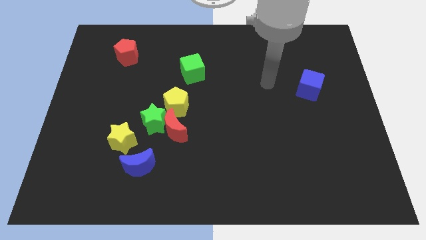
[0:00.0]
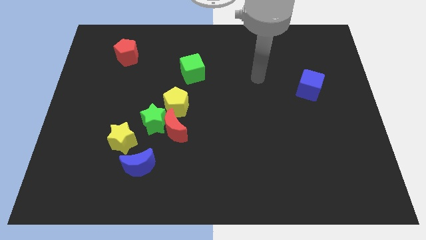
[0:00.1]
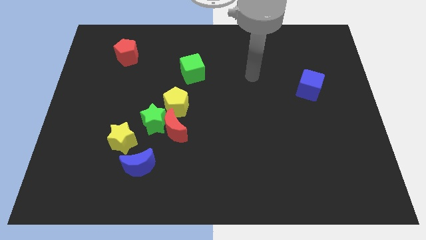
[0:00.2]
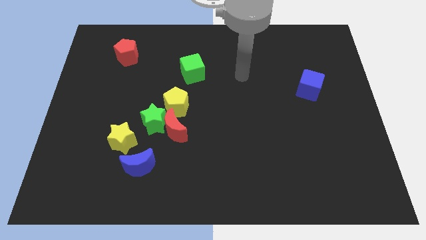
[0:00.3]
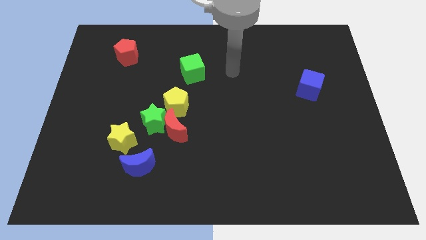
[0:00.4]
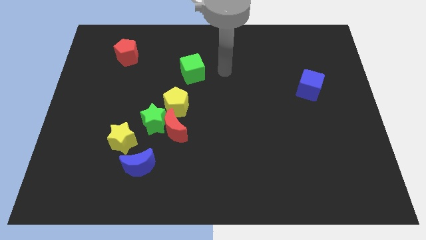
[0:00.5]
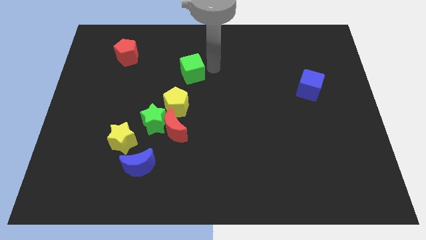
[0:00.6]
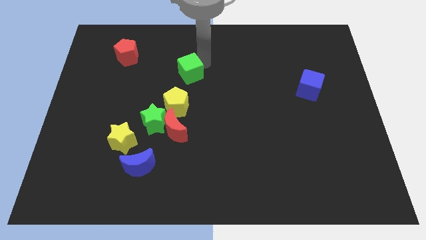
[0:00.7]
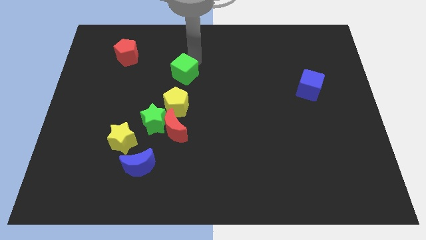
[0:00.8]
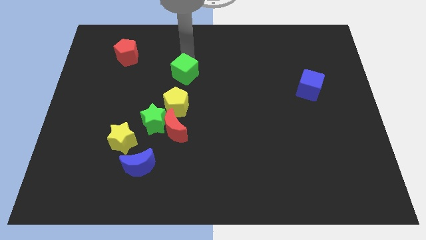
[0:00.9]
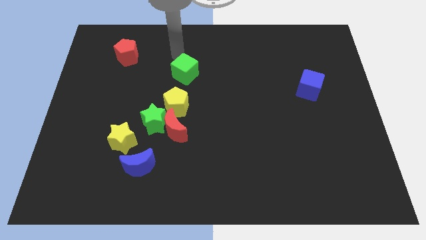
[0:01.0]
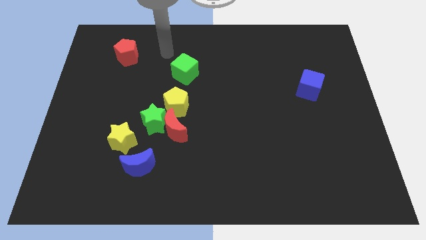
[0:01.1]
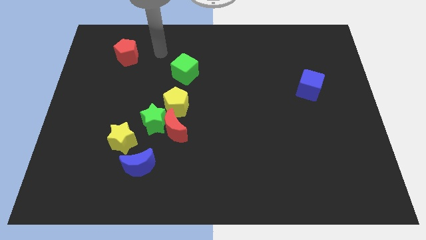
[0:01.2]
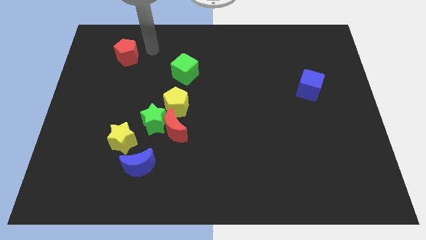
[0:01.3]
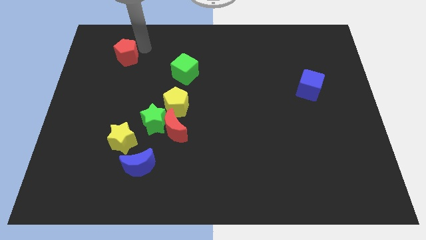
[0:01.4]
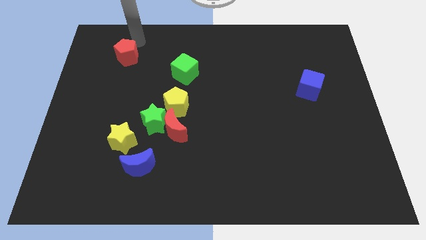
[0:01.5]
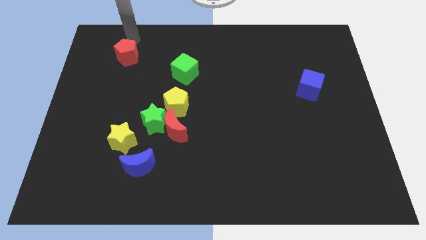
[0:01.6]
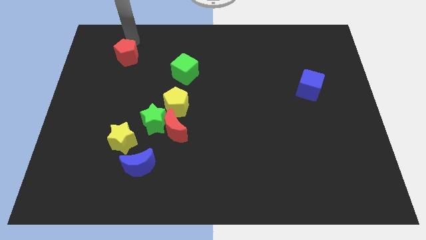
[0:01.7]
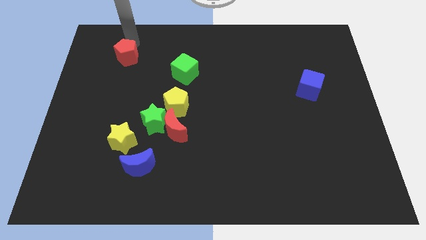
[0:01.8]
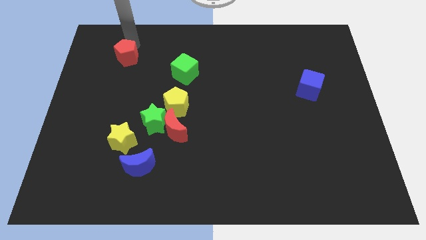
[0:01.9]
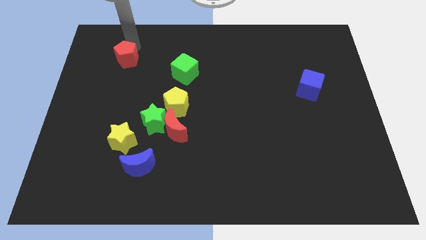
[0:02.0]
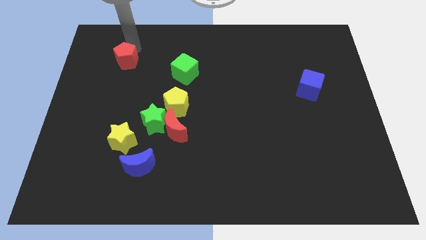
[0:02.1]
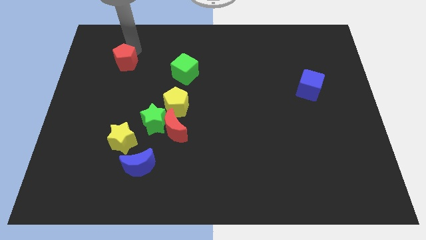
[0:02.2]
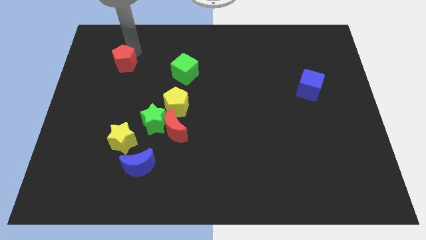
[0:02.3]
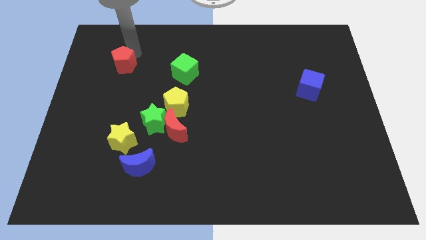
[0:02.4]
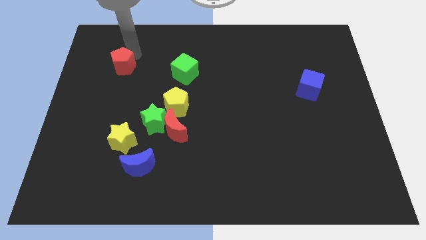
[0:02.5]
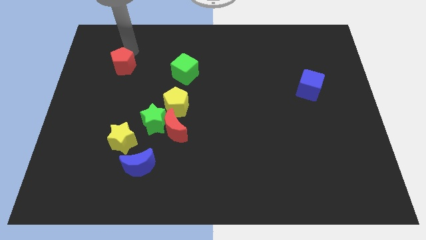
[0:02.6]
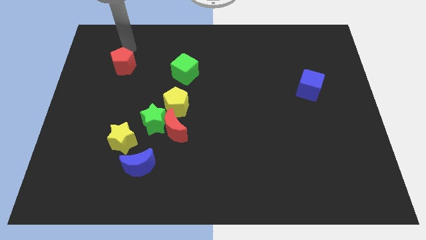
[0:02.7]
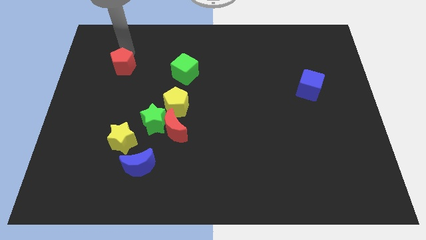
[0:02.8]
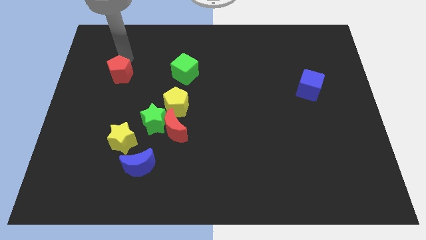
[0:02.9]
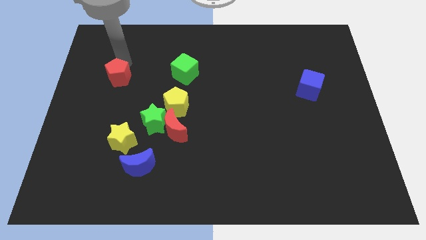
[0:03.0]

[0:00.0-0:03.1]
move the red pentagon down somewhat

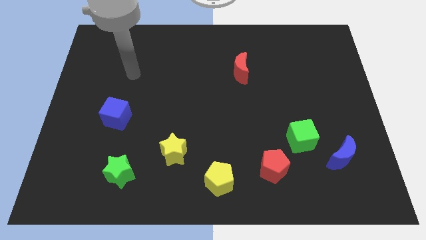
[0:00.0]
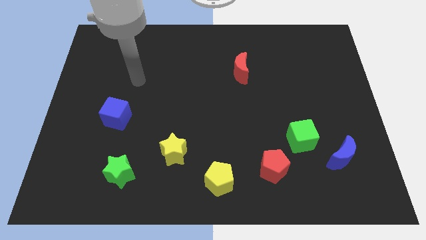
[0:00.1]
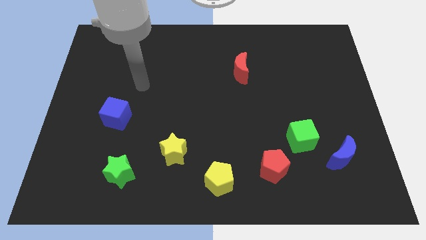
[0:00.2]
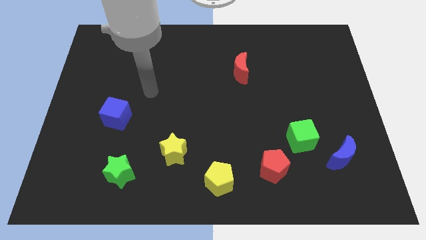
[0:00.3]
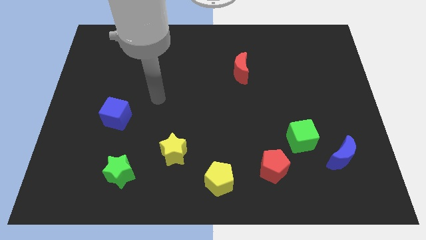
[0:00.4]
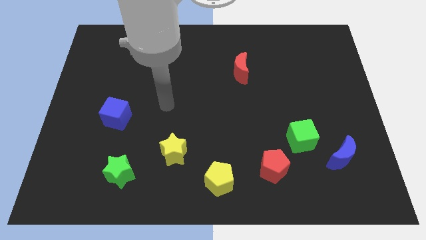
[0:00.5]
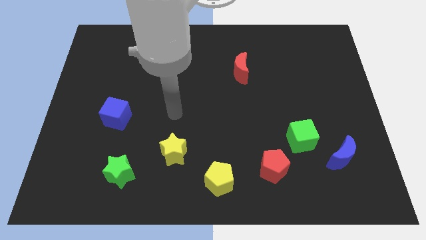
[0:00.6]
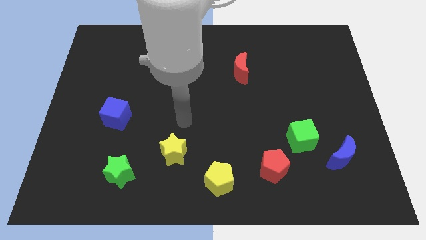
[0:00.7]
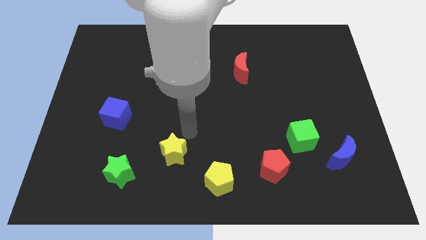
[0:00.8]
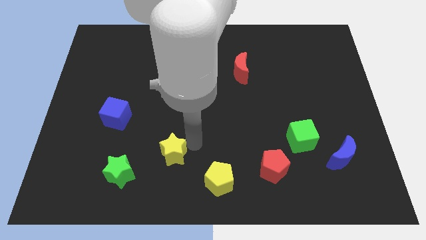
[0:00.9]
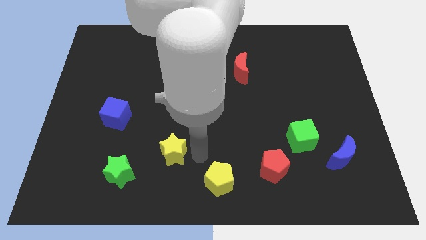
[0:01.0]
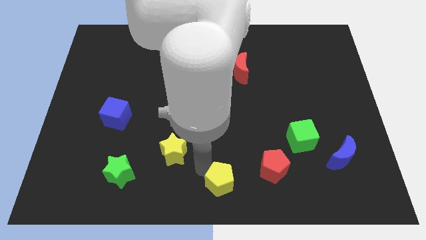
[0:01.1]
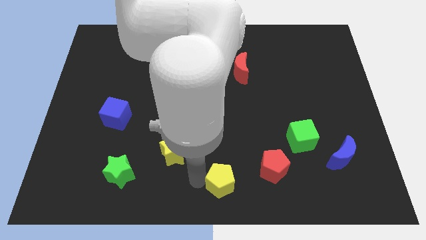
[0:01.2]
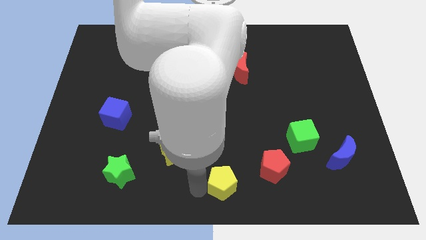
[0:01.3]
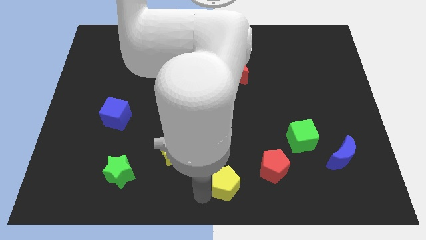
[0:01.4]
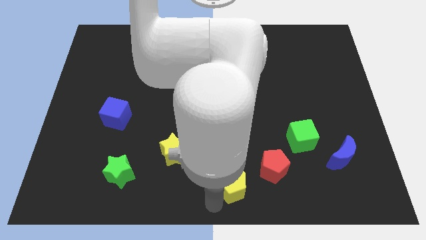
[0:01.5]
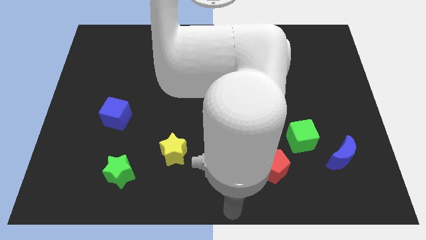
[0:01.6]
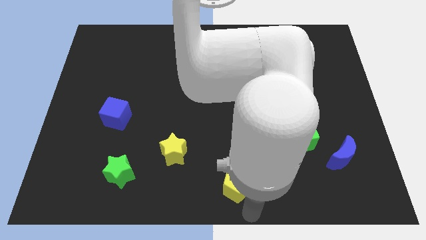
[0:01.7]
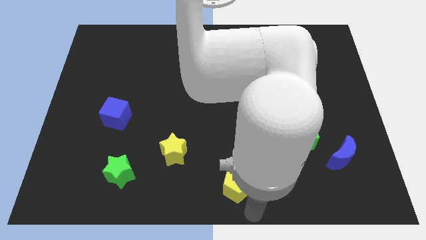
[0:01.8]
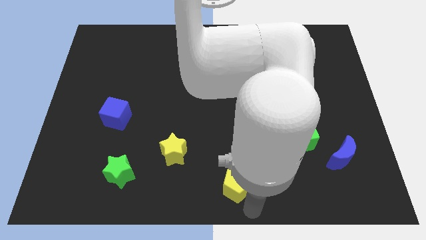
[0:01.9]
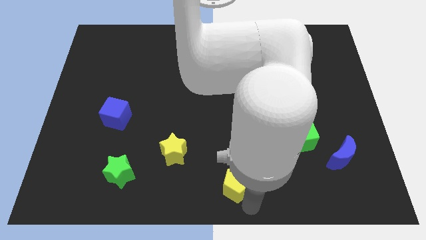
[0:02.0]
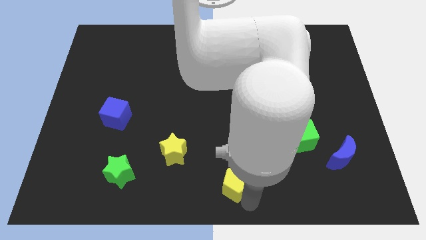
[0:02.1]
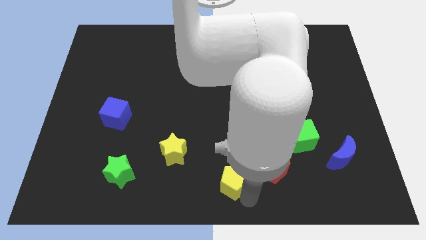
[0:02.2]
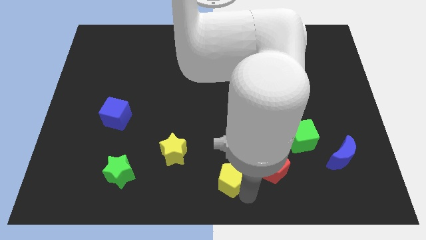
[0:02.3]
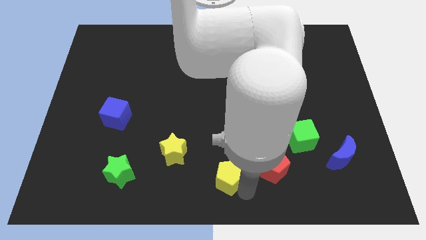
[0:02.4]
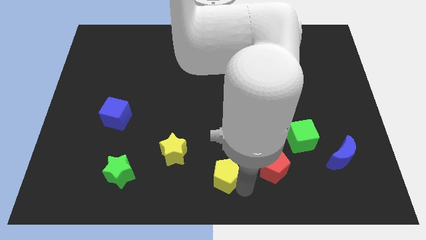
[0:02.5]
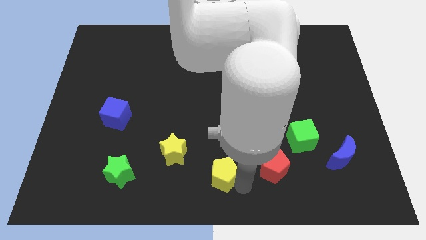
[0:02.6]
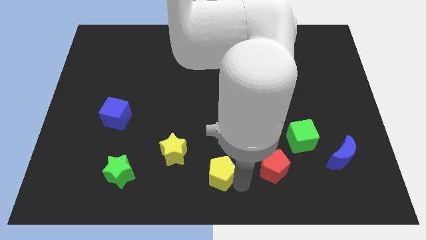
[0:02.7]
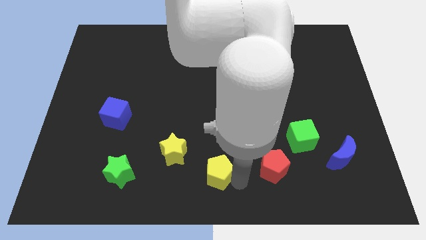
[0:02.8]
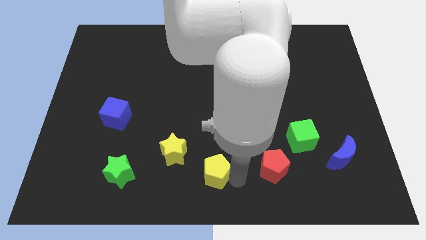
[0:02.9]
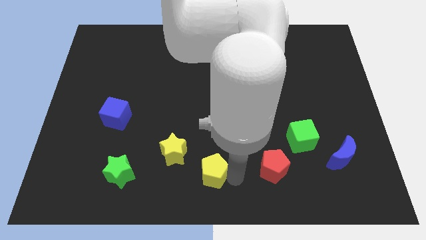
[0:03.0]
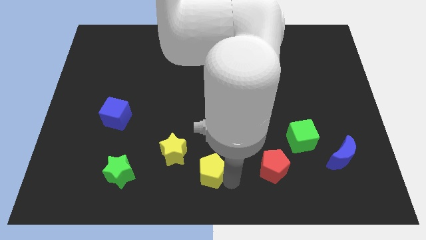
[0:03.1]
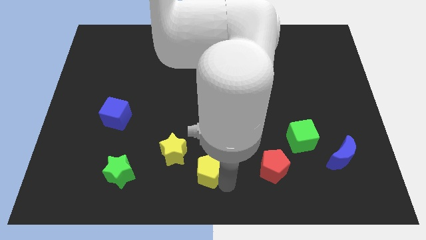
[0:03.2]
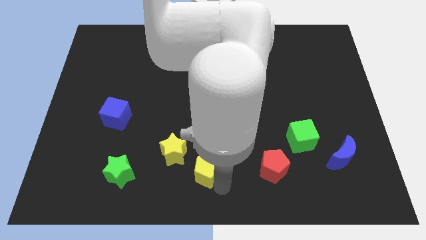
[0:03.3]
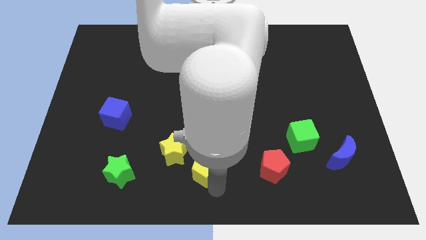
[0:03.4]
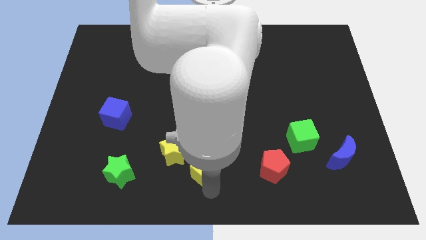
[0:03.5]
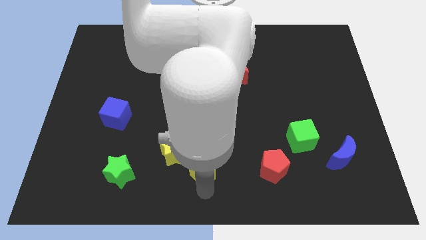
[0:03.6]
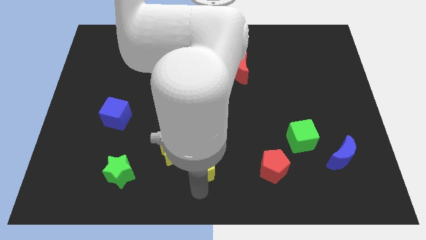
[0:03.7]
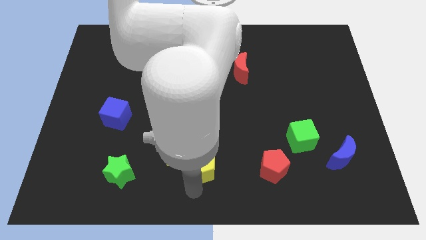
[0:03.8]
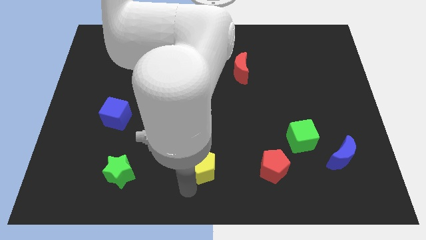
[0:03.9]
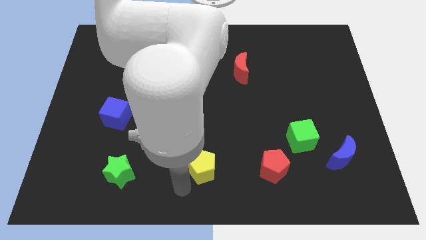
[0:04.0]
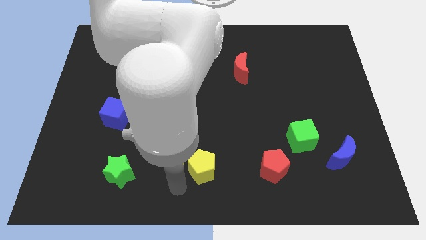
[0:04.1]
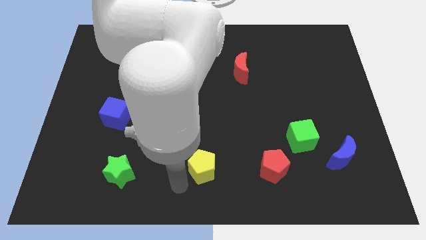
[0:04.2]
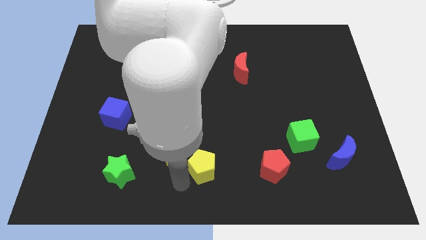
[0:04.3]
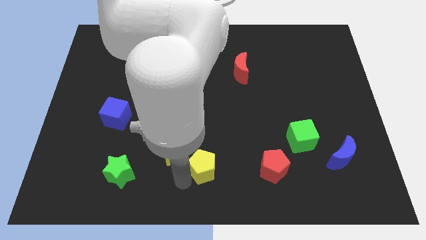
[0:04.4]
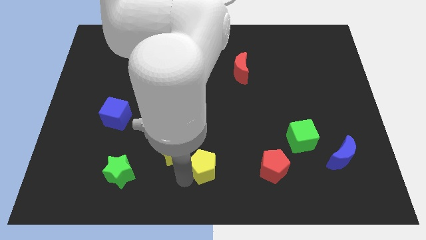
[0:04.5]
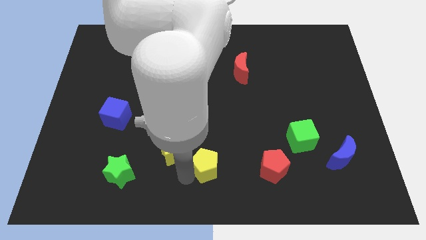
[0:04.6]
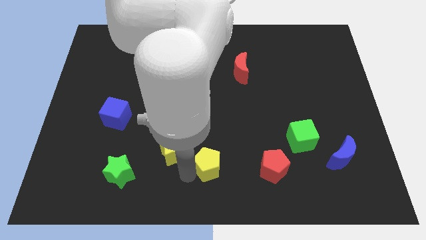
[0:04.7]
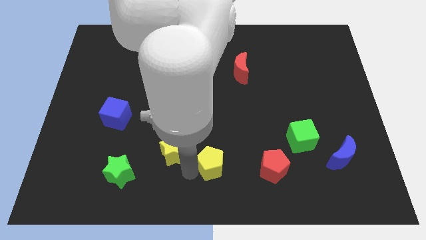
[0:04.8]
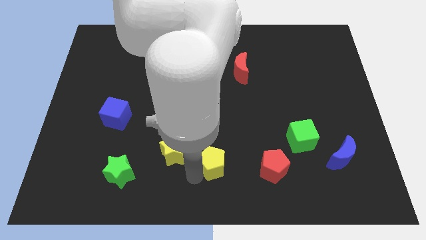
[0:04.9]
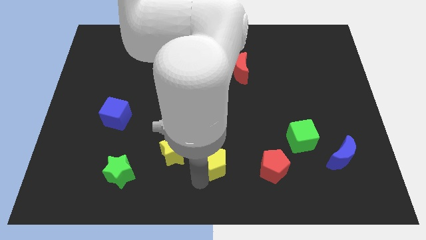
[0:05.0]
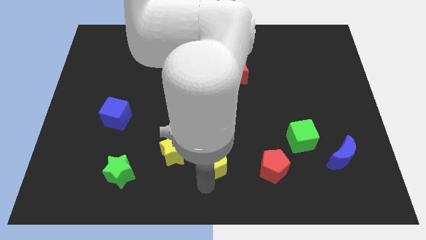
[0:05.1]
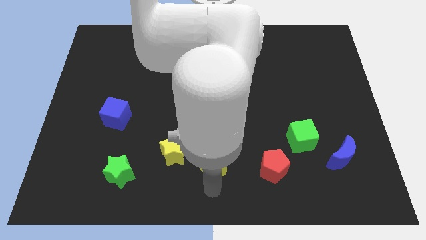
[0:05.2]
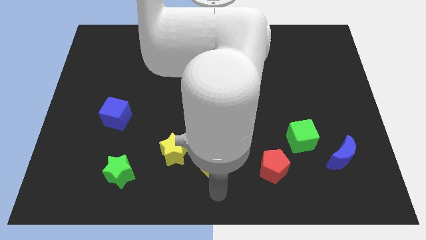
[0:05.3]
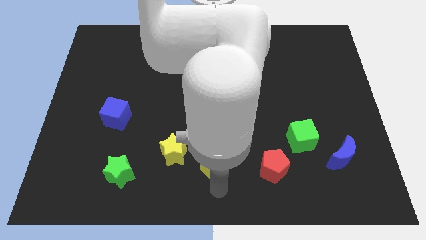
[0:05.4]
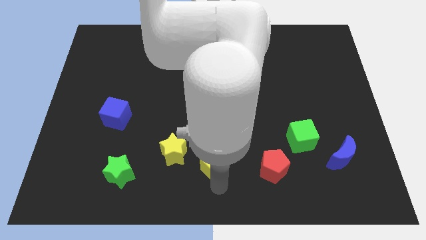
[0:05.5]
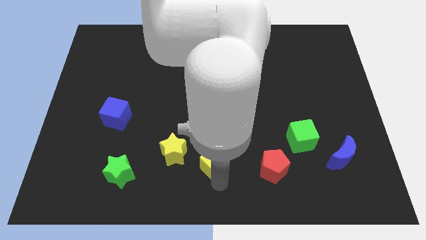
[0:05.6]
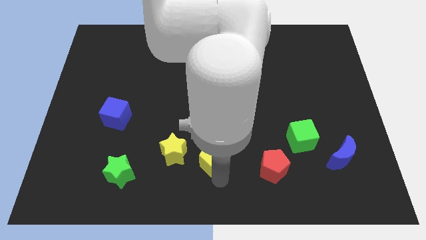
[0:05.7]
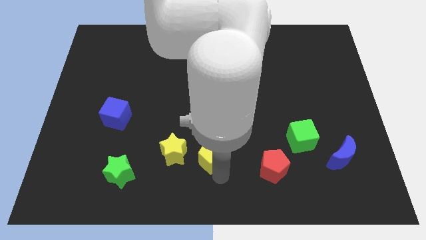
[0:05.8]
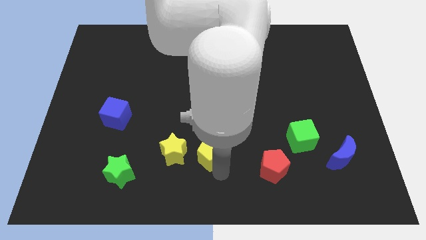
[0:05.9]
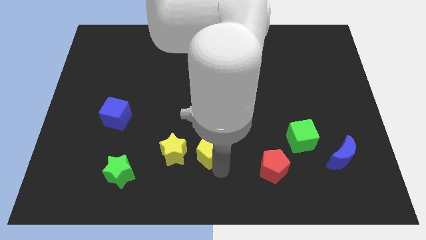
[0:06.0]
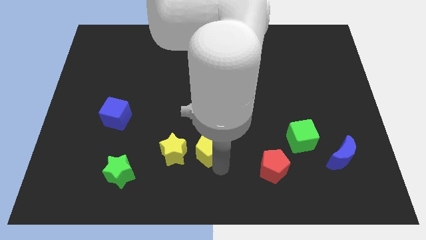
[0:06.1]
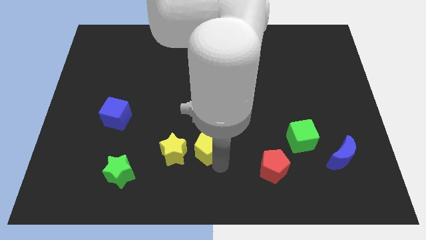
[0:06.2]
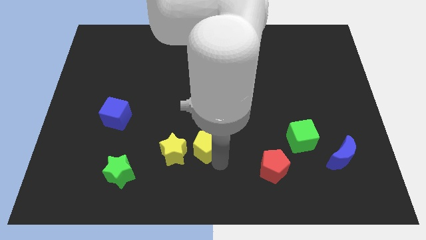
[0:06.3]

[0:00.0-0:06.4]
push the yellow pentagon slightly up and then left
